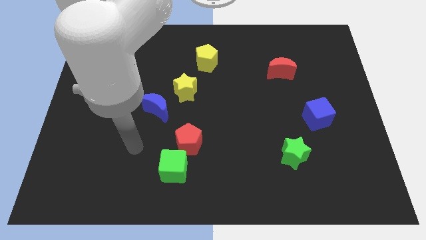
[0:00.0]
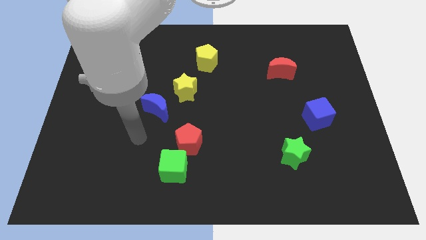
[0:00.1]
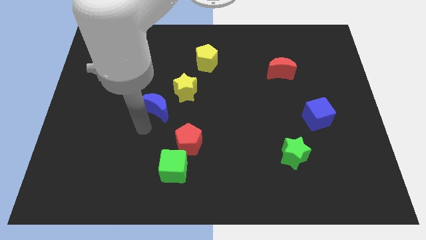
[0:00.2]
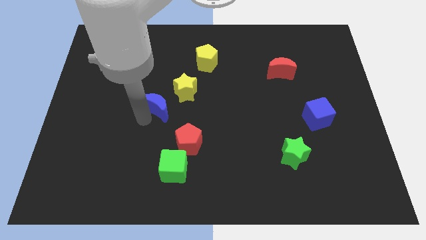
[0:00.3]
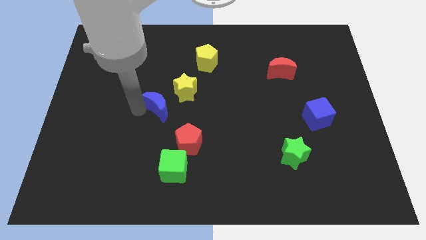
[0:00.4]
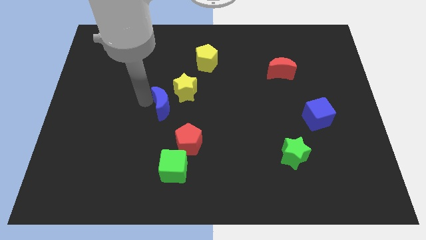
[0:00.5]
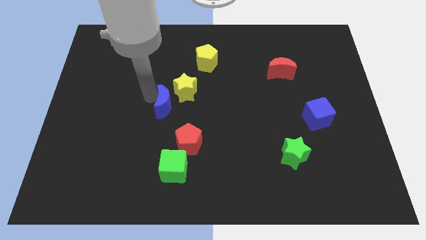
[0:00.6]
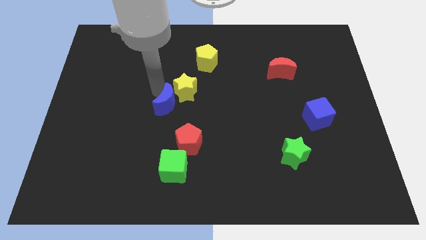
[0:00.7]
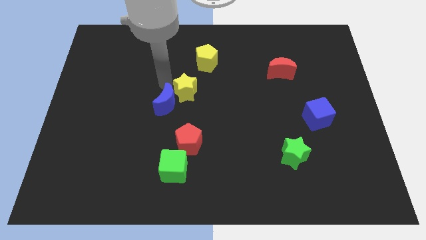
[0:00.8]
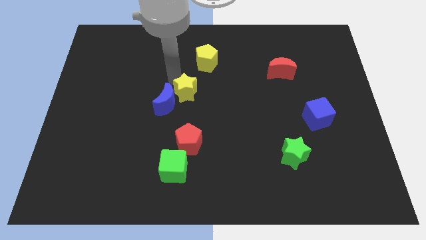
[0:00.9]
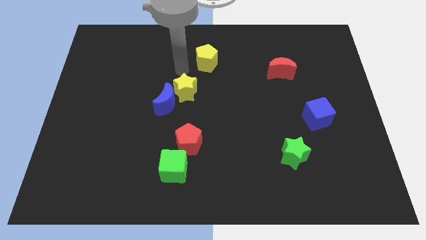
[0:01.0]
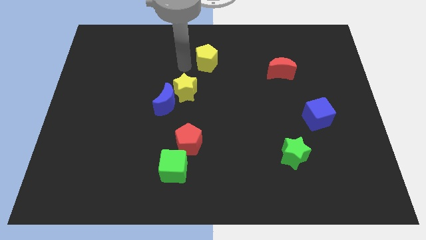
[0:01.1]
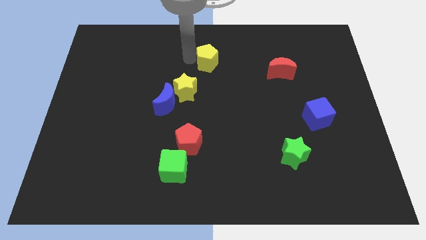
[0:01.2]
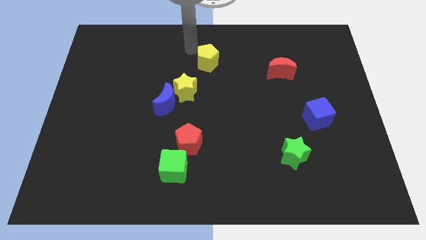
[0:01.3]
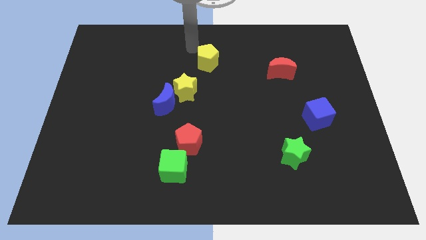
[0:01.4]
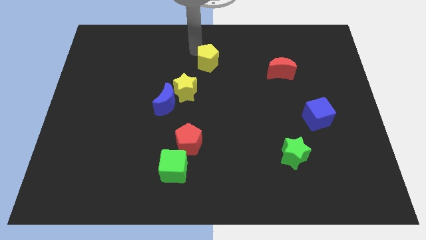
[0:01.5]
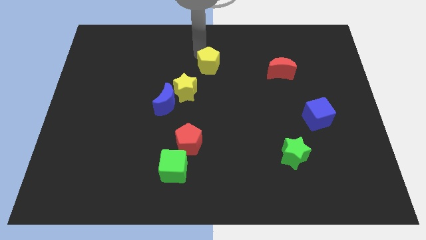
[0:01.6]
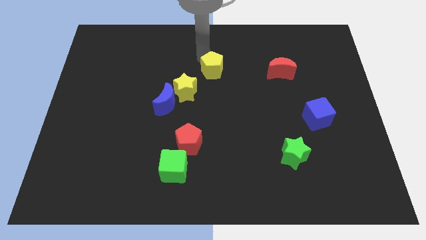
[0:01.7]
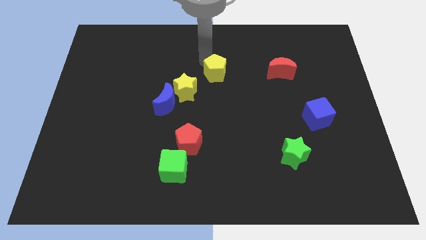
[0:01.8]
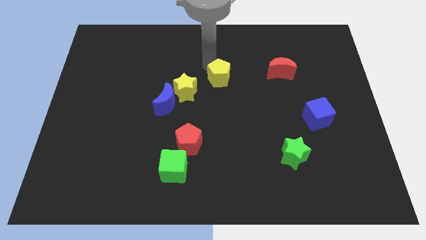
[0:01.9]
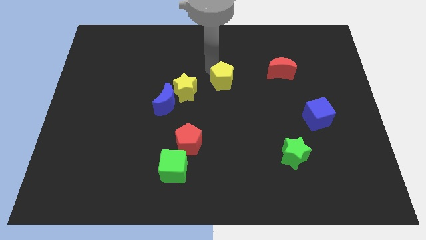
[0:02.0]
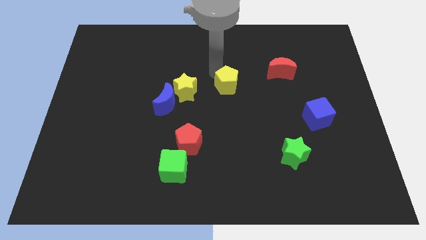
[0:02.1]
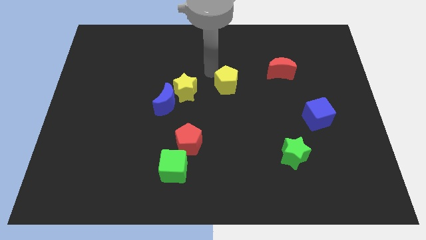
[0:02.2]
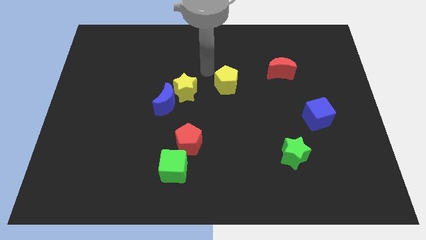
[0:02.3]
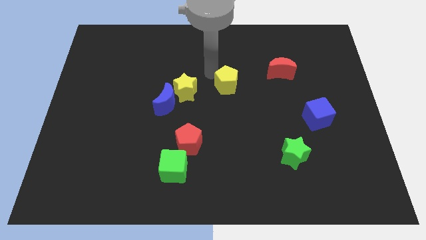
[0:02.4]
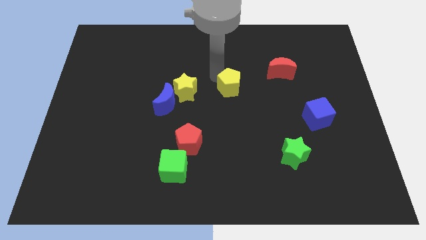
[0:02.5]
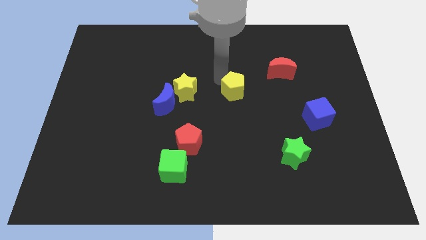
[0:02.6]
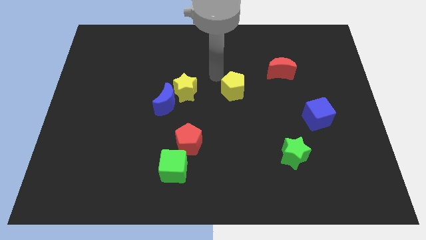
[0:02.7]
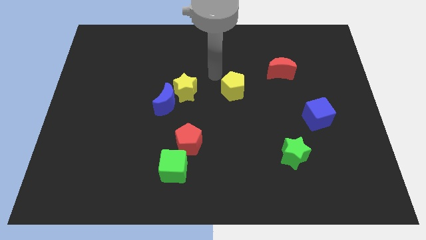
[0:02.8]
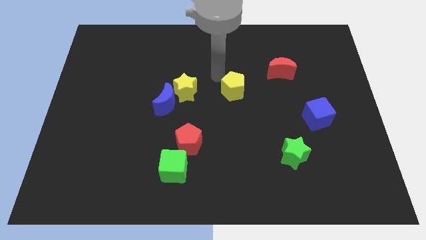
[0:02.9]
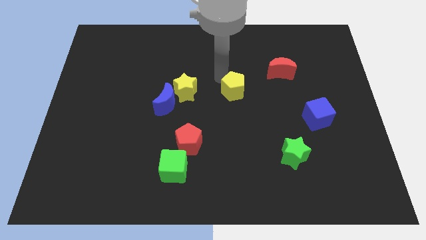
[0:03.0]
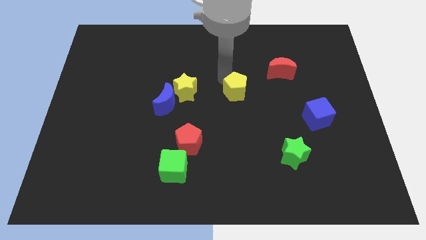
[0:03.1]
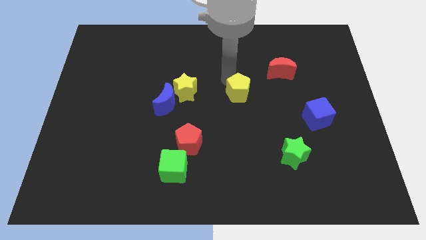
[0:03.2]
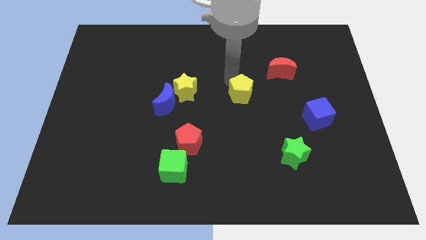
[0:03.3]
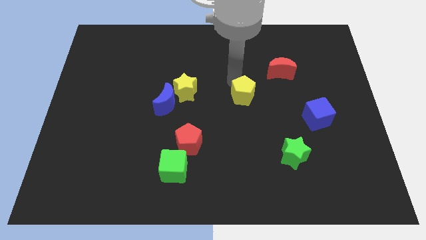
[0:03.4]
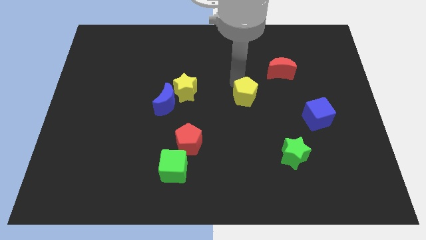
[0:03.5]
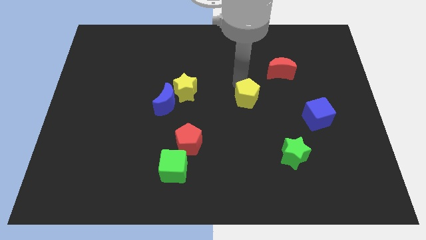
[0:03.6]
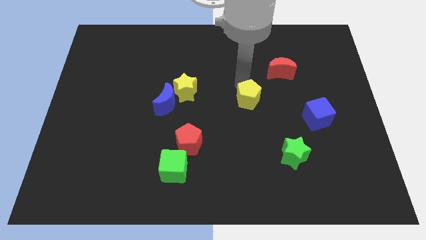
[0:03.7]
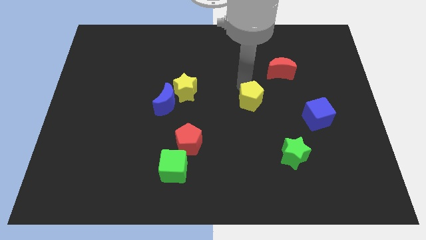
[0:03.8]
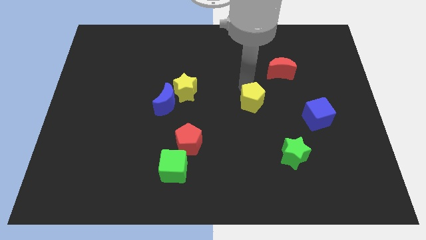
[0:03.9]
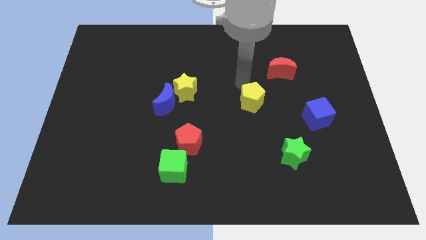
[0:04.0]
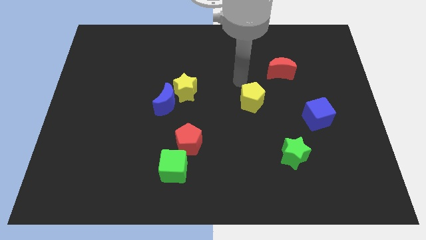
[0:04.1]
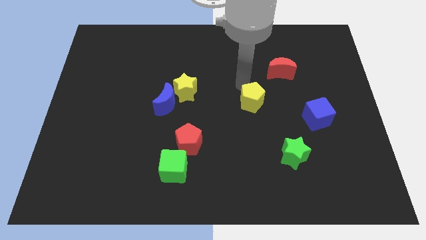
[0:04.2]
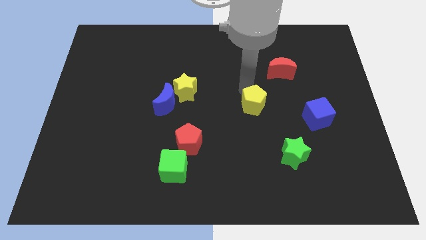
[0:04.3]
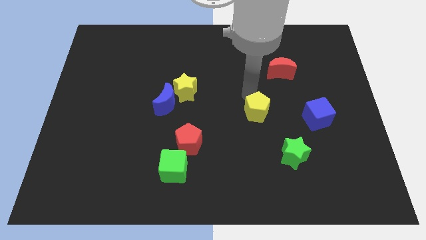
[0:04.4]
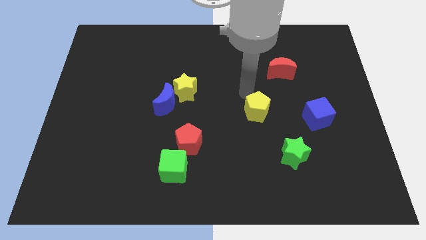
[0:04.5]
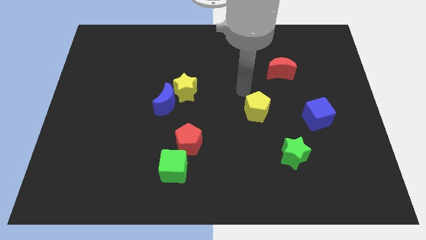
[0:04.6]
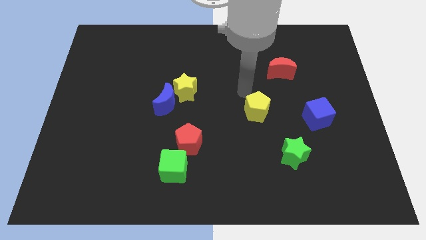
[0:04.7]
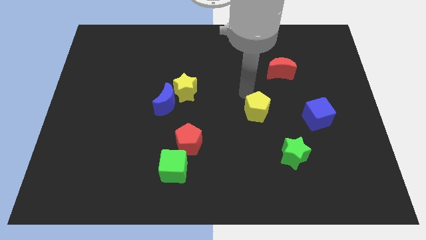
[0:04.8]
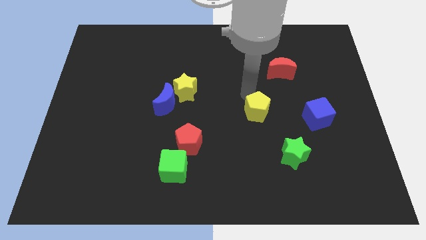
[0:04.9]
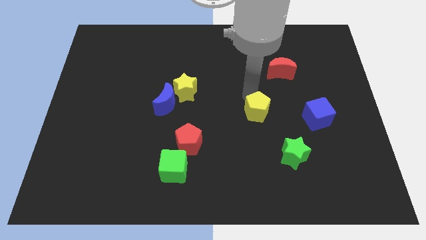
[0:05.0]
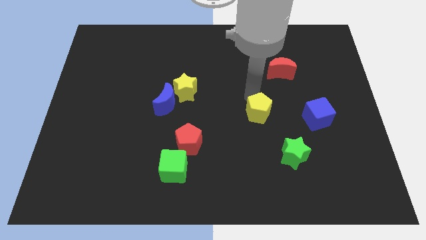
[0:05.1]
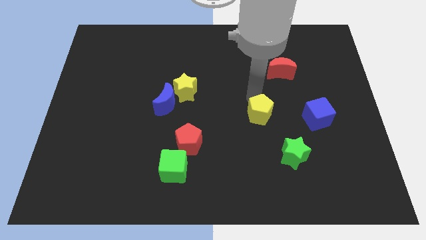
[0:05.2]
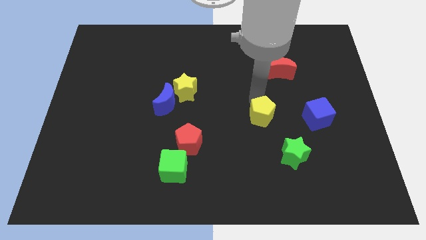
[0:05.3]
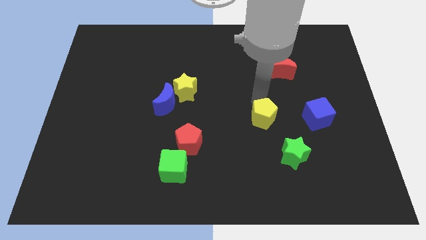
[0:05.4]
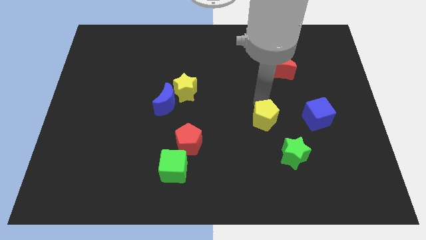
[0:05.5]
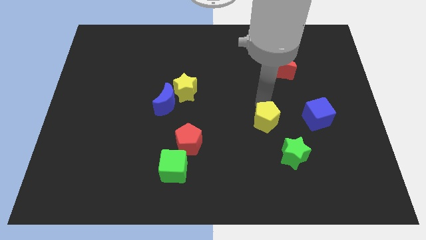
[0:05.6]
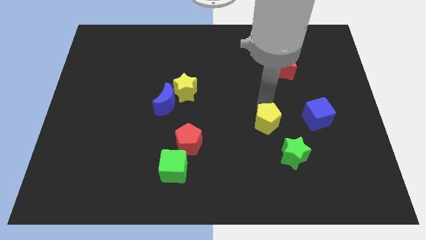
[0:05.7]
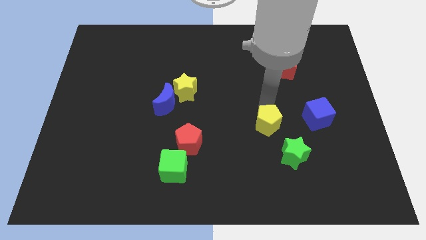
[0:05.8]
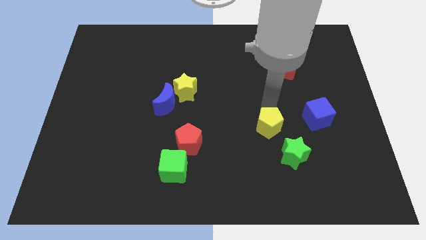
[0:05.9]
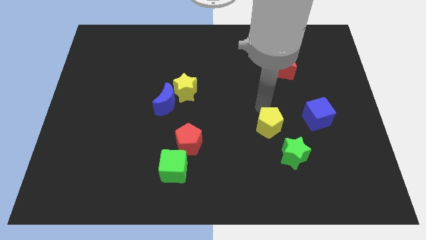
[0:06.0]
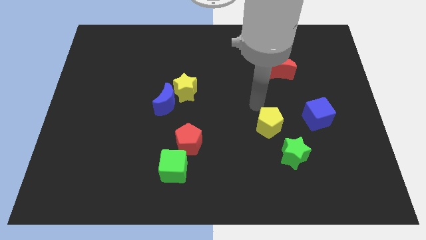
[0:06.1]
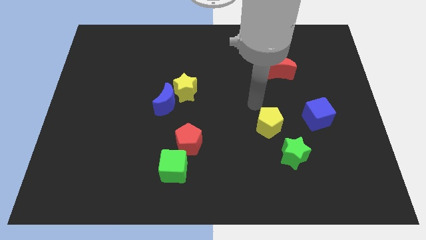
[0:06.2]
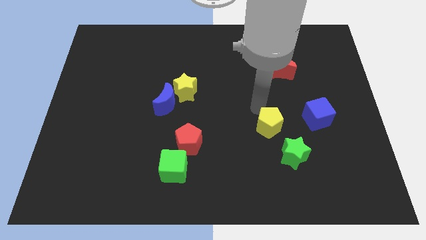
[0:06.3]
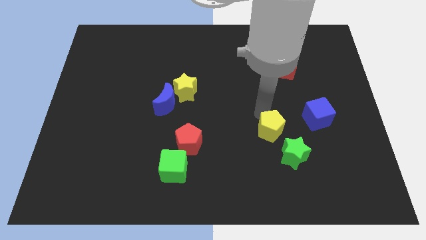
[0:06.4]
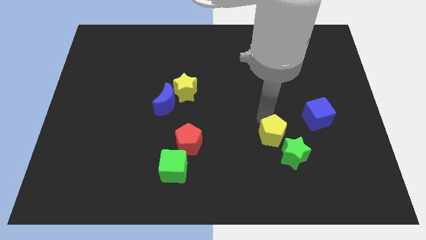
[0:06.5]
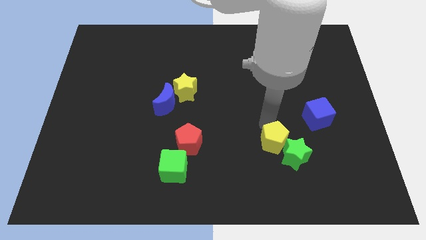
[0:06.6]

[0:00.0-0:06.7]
put the yellow pentagon to the green star
